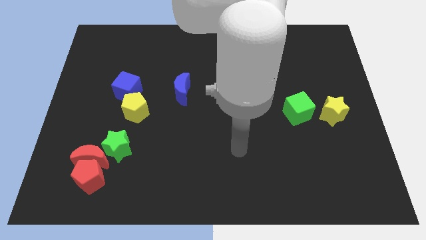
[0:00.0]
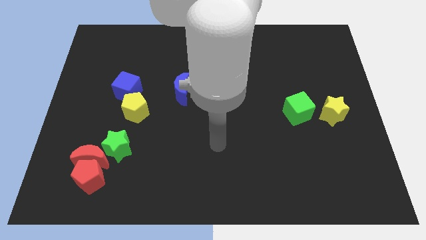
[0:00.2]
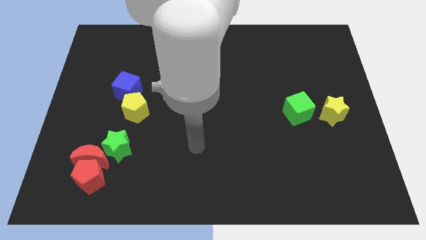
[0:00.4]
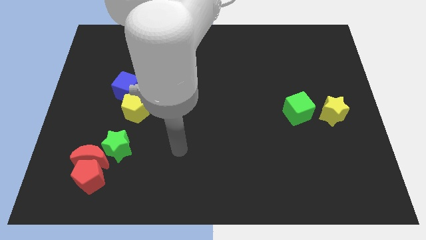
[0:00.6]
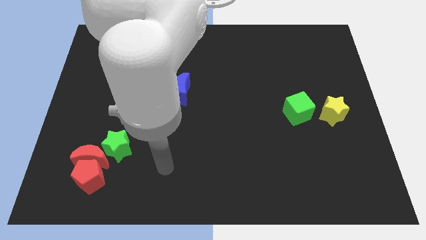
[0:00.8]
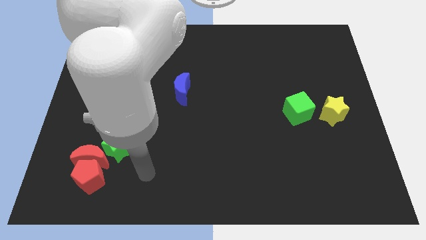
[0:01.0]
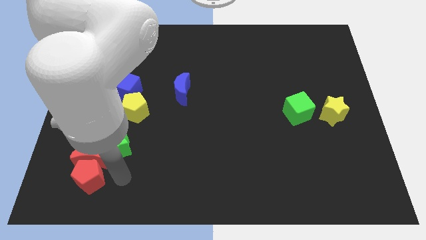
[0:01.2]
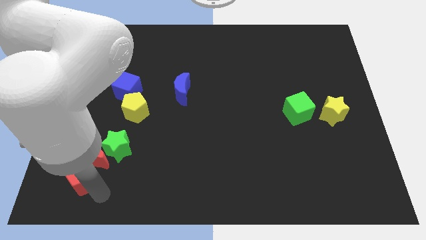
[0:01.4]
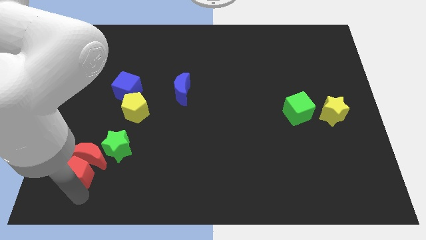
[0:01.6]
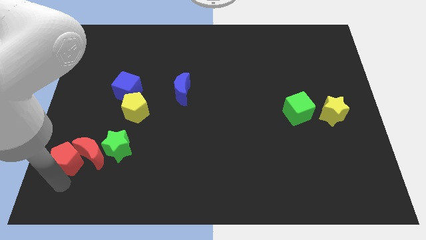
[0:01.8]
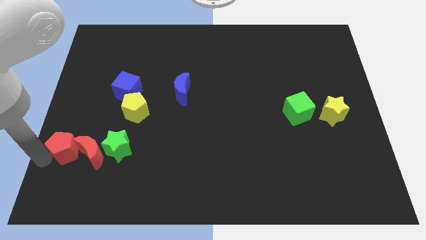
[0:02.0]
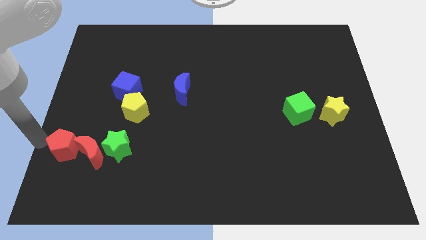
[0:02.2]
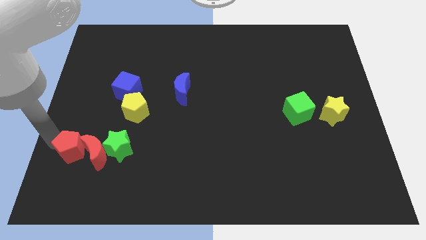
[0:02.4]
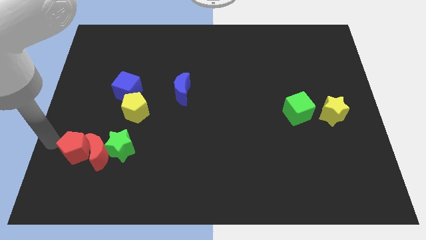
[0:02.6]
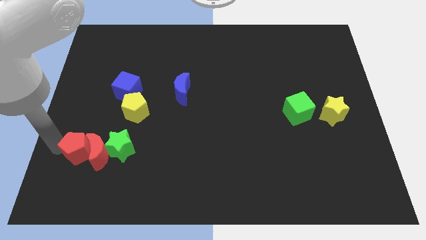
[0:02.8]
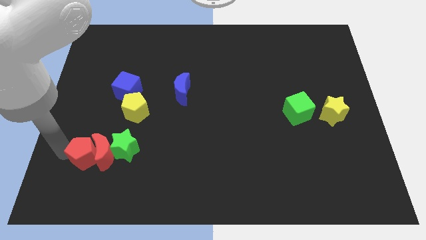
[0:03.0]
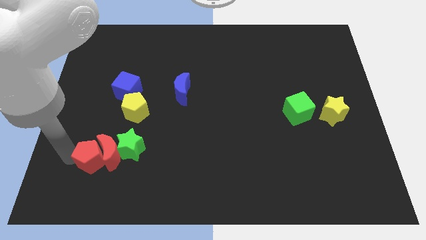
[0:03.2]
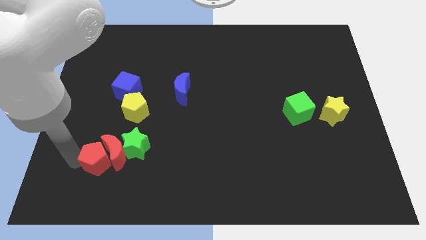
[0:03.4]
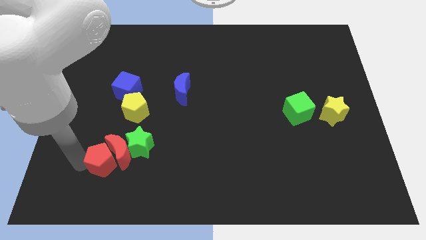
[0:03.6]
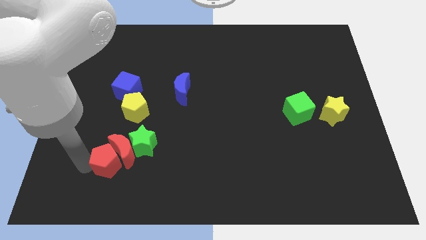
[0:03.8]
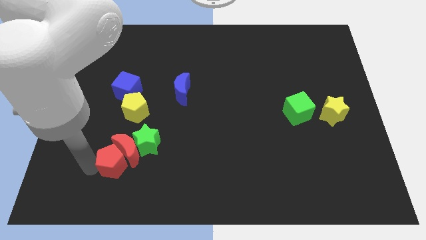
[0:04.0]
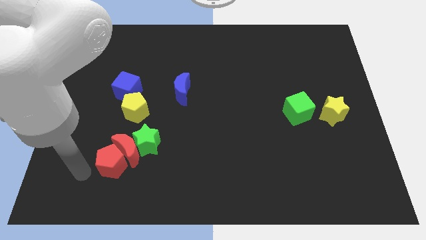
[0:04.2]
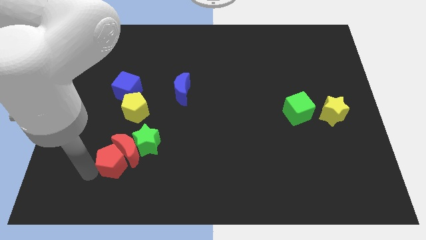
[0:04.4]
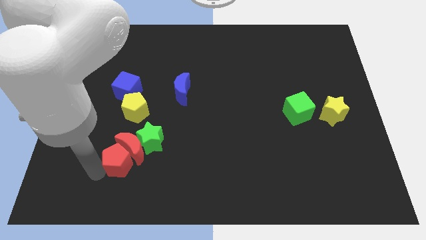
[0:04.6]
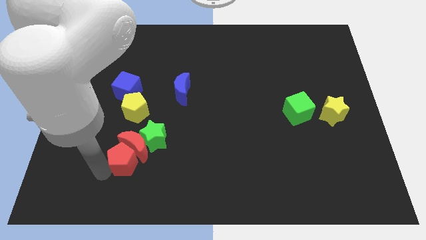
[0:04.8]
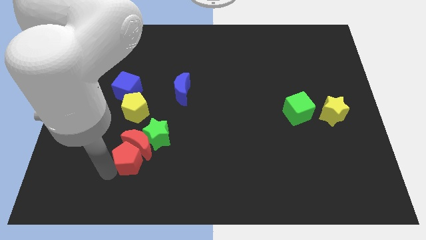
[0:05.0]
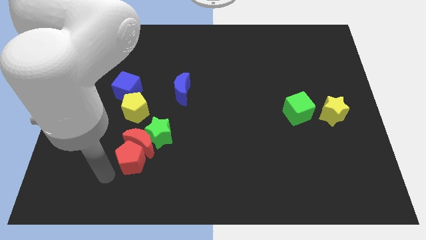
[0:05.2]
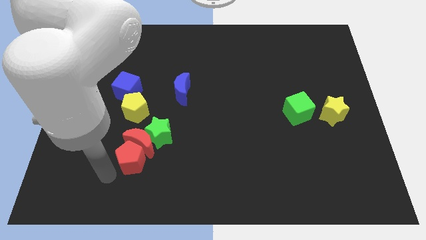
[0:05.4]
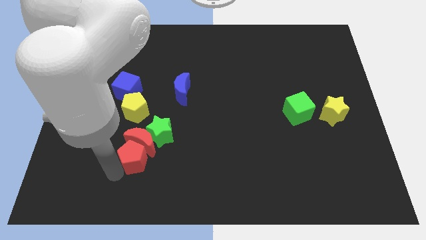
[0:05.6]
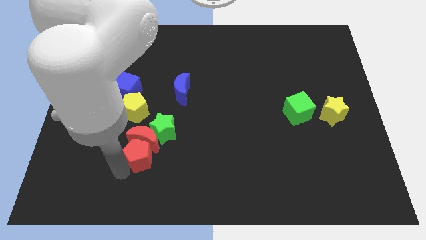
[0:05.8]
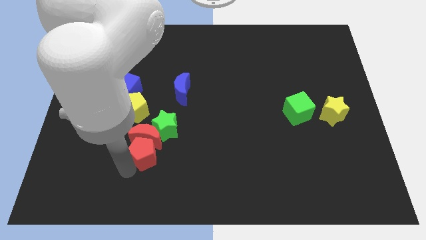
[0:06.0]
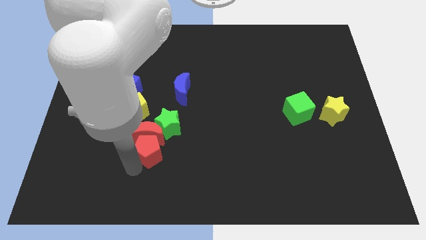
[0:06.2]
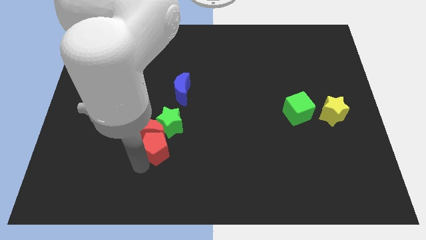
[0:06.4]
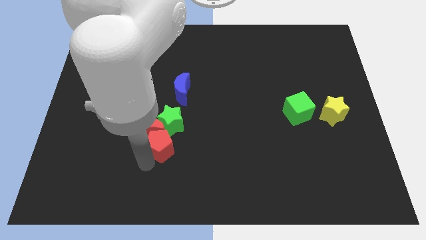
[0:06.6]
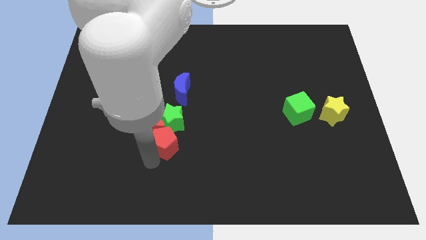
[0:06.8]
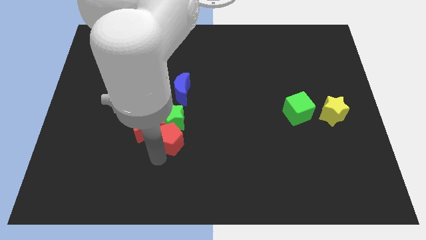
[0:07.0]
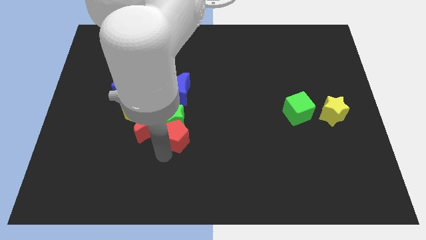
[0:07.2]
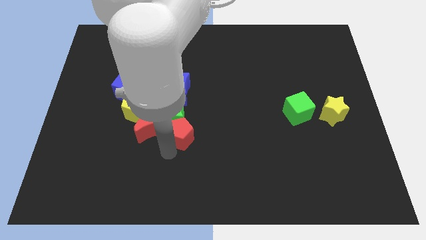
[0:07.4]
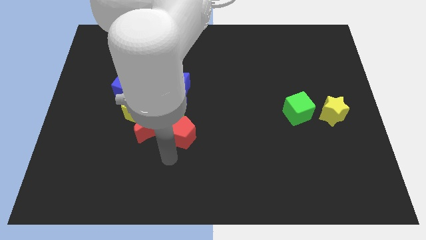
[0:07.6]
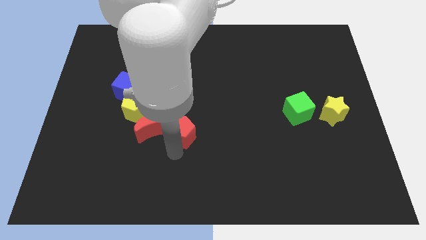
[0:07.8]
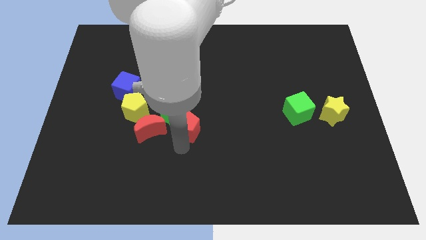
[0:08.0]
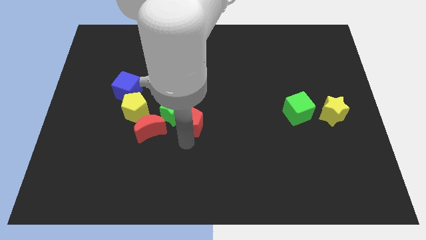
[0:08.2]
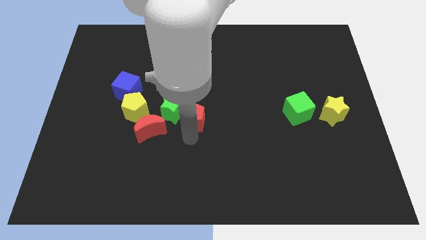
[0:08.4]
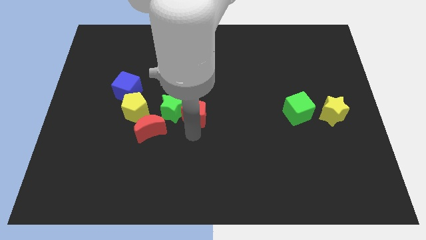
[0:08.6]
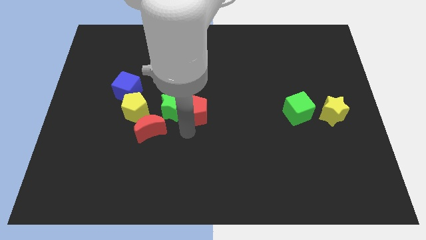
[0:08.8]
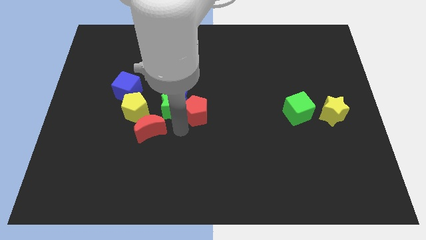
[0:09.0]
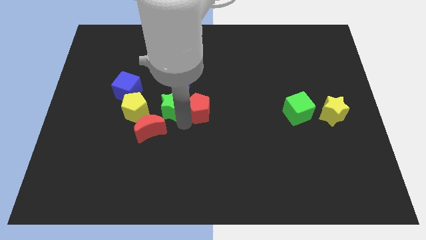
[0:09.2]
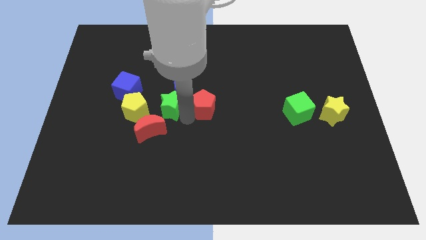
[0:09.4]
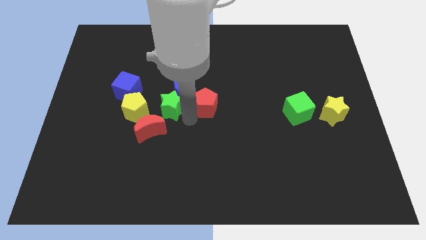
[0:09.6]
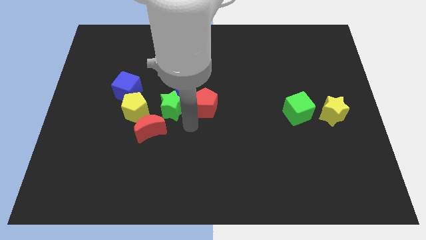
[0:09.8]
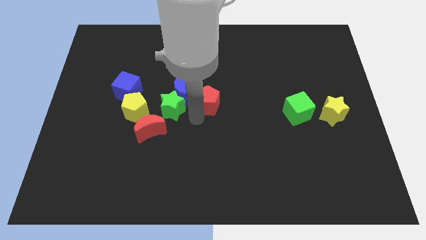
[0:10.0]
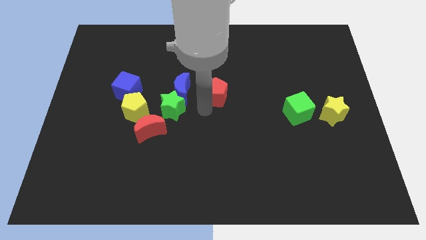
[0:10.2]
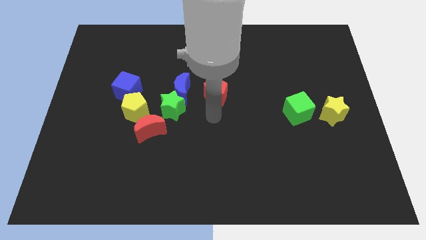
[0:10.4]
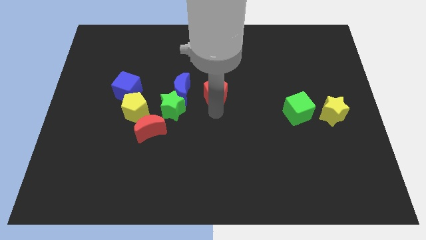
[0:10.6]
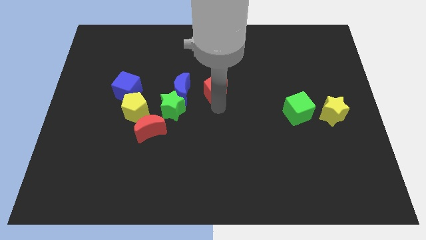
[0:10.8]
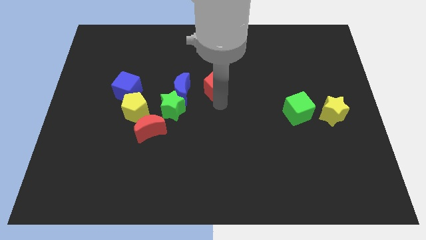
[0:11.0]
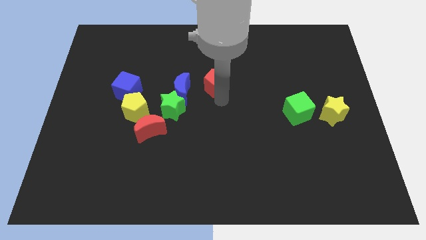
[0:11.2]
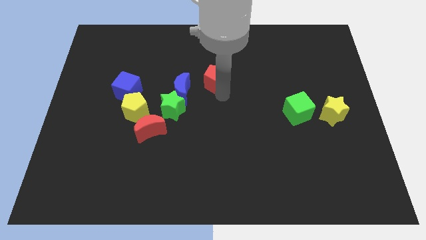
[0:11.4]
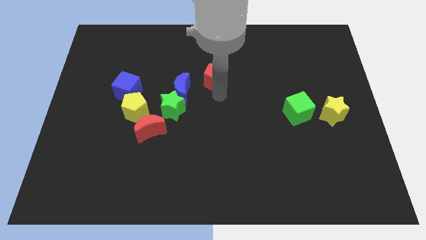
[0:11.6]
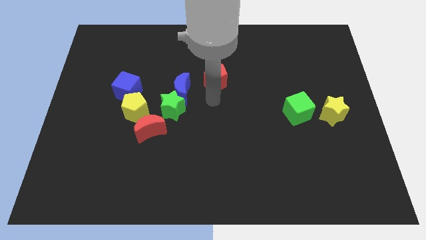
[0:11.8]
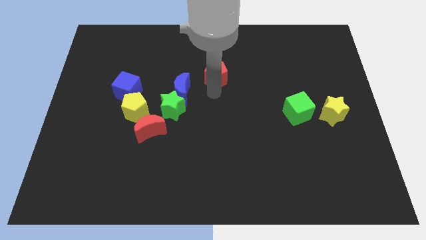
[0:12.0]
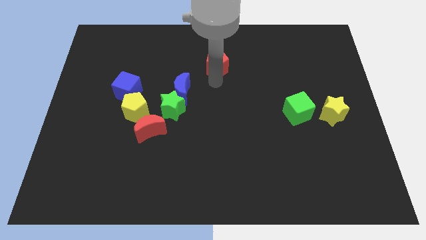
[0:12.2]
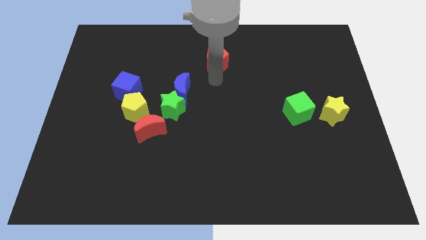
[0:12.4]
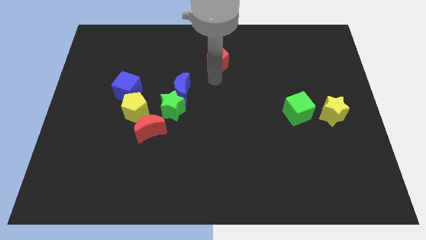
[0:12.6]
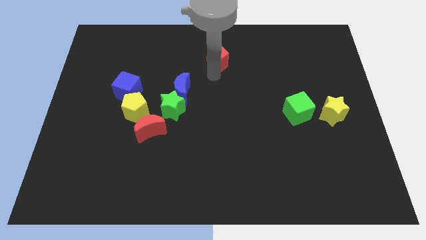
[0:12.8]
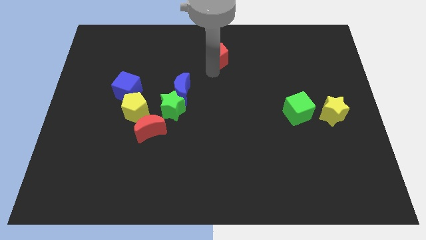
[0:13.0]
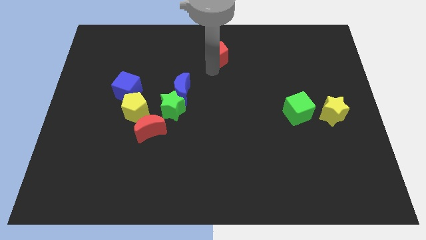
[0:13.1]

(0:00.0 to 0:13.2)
put the red pentagon to the towards your base
